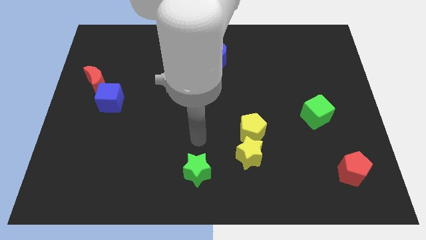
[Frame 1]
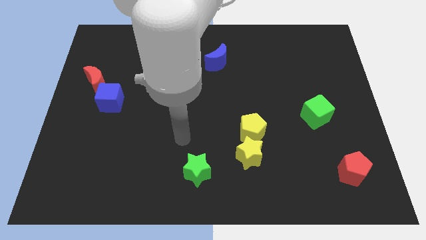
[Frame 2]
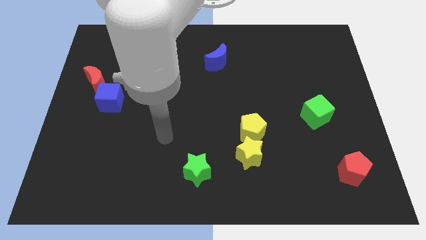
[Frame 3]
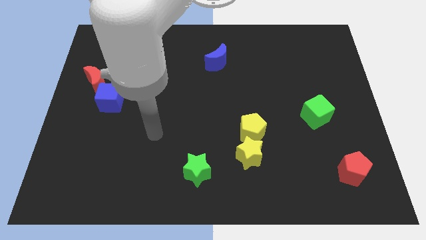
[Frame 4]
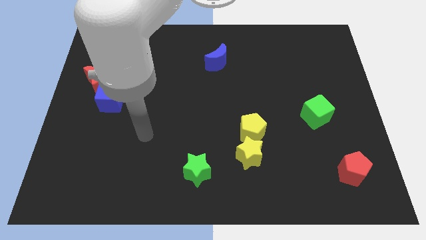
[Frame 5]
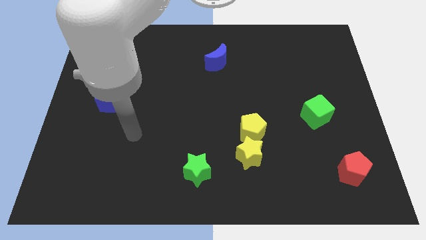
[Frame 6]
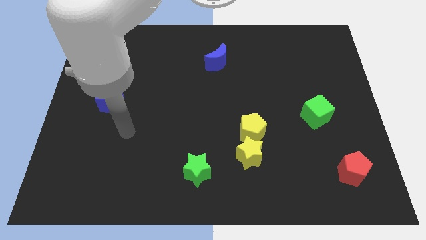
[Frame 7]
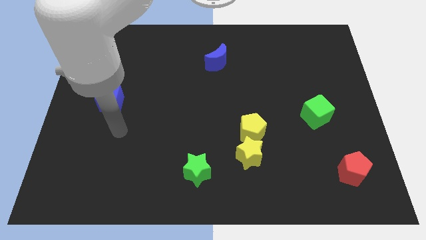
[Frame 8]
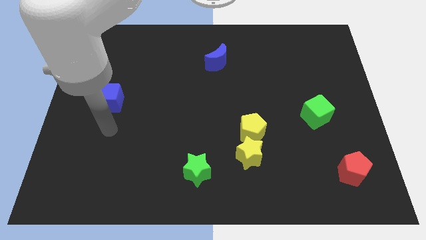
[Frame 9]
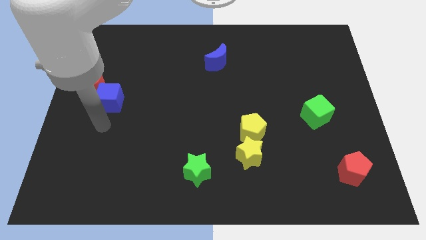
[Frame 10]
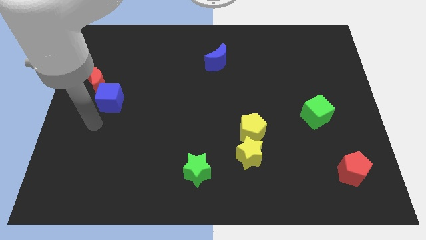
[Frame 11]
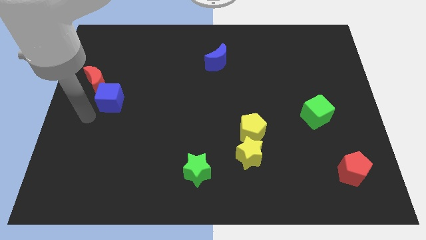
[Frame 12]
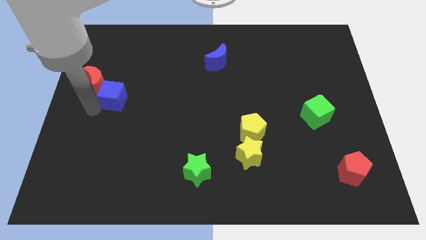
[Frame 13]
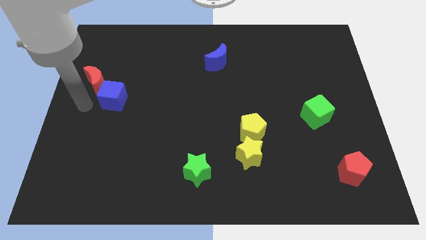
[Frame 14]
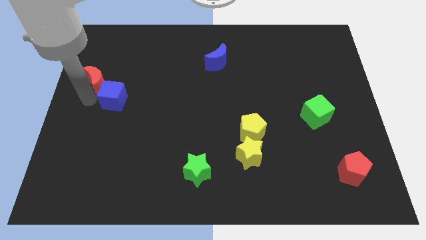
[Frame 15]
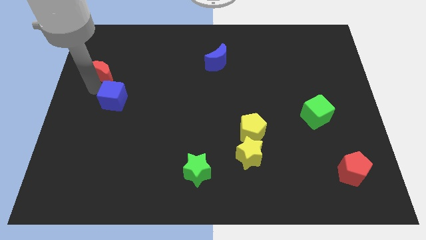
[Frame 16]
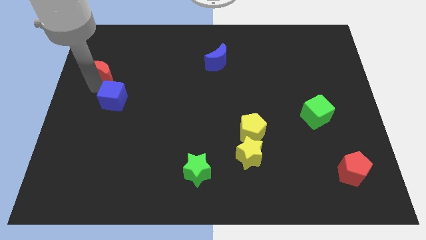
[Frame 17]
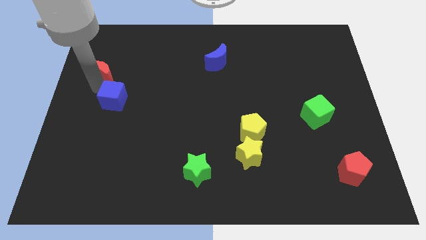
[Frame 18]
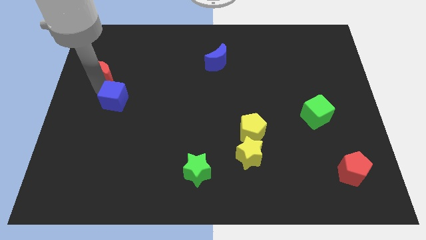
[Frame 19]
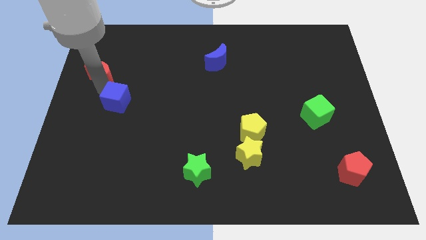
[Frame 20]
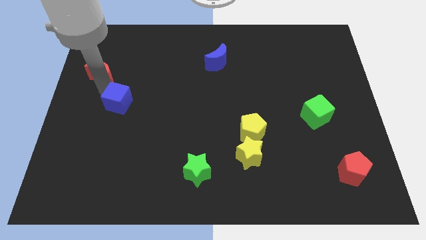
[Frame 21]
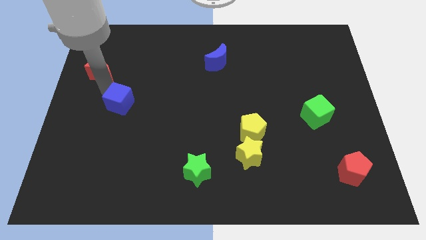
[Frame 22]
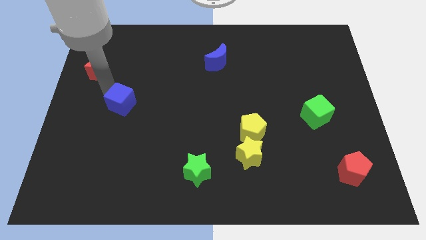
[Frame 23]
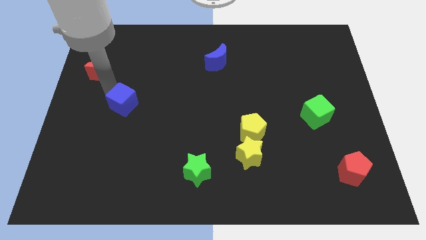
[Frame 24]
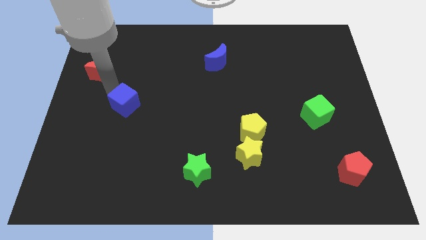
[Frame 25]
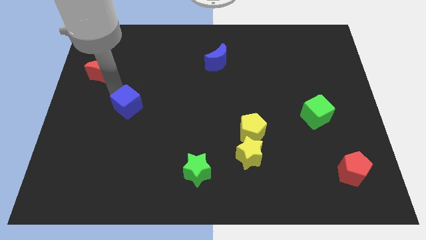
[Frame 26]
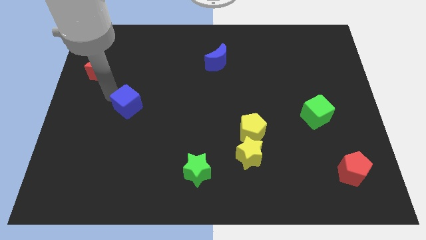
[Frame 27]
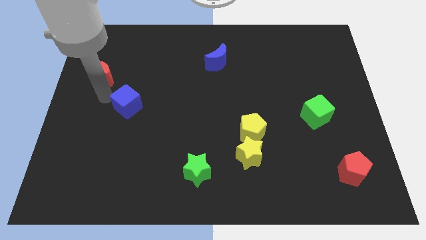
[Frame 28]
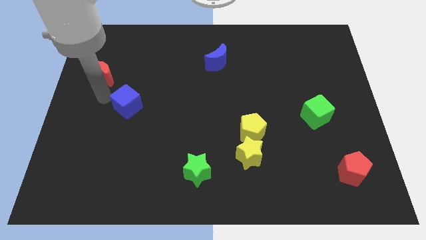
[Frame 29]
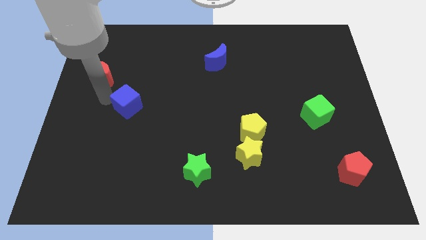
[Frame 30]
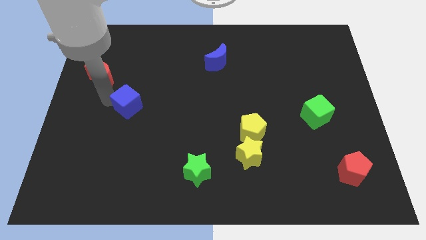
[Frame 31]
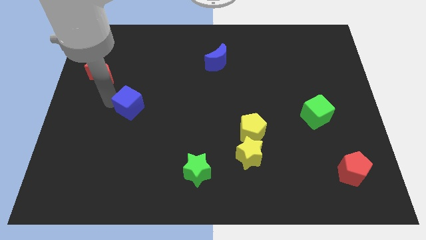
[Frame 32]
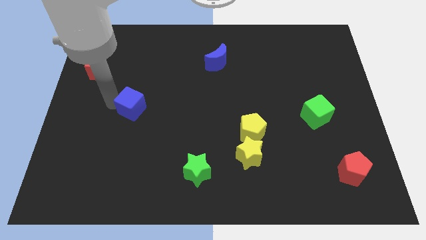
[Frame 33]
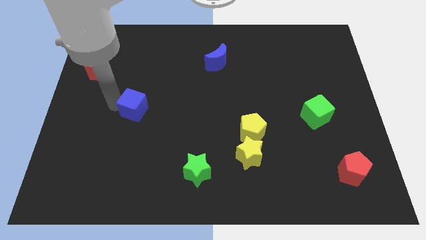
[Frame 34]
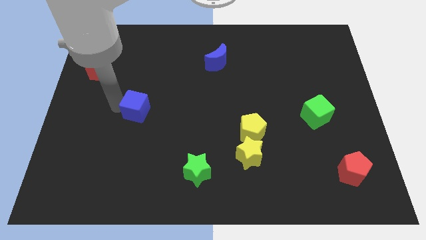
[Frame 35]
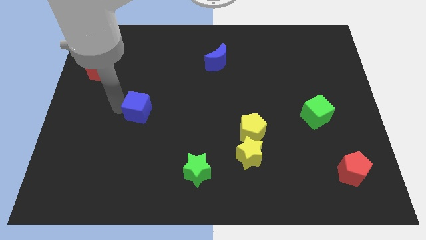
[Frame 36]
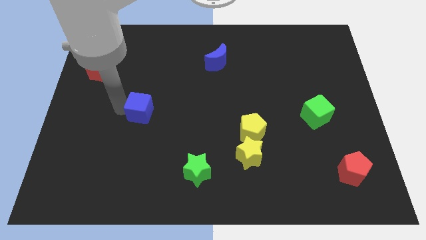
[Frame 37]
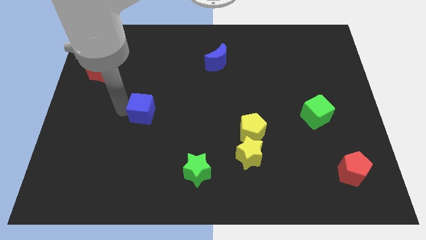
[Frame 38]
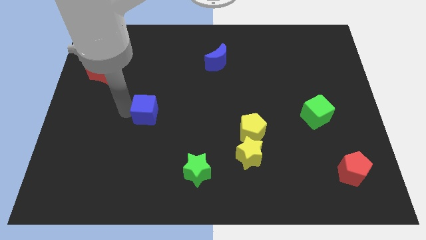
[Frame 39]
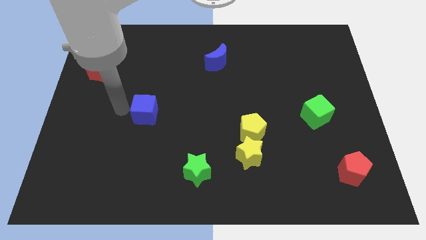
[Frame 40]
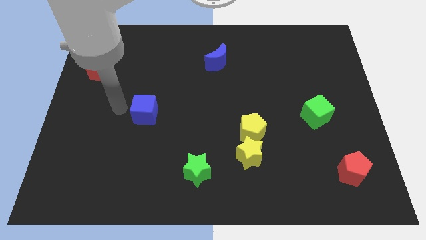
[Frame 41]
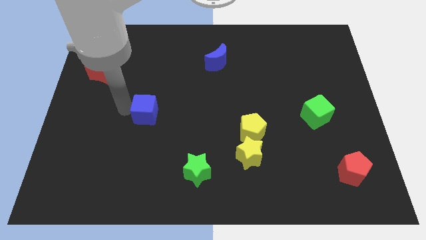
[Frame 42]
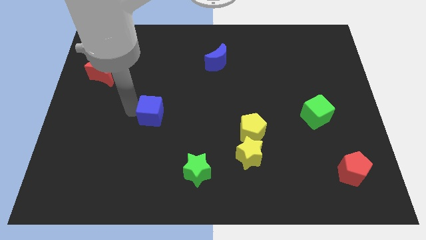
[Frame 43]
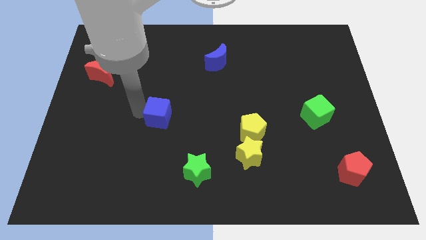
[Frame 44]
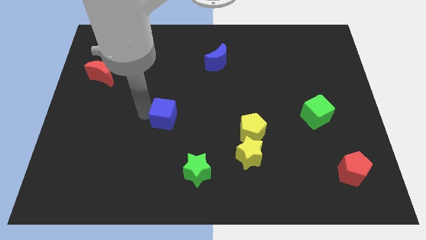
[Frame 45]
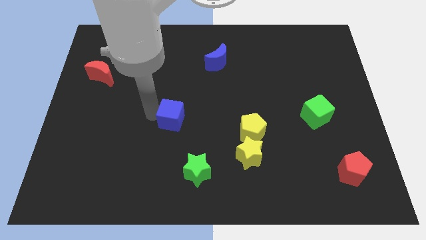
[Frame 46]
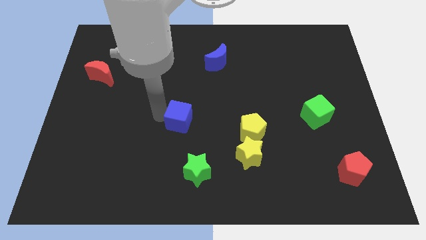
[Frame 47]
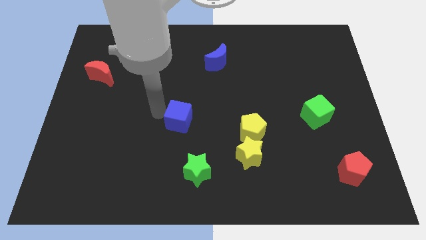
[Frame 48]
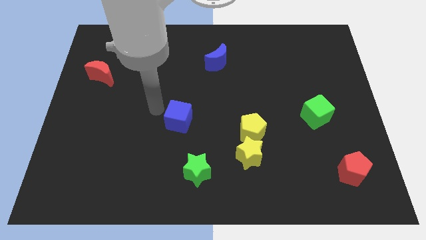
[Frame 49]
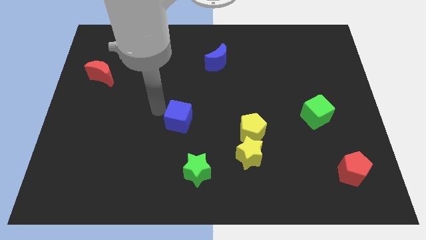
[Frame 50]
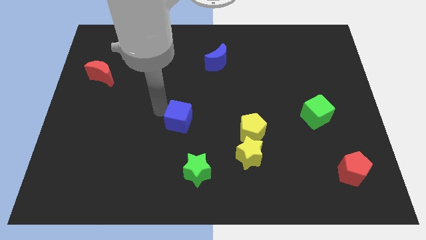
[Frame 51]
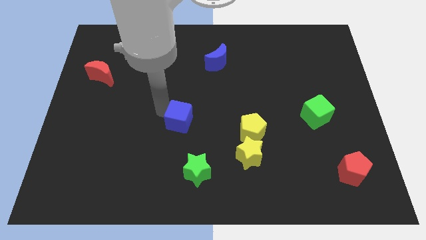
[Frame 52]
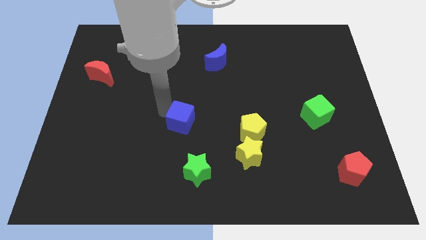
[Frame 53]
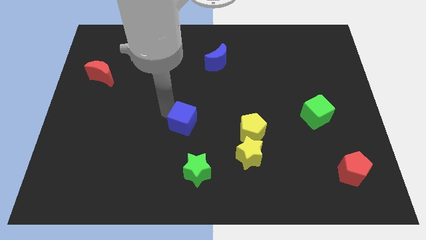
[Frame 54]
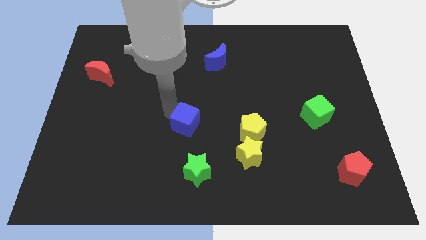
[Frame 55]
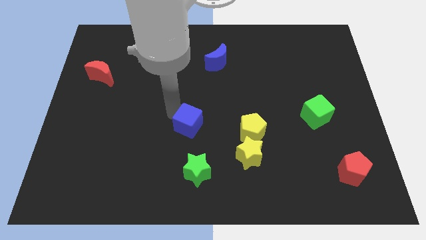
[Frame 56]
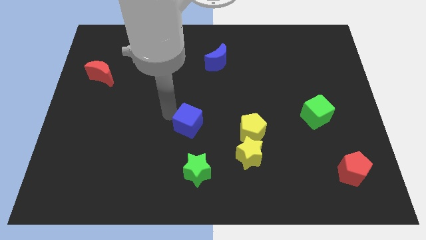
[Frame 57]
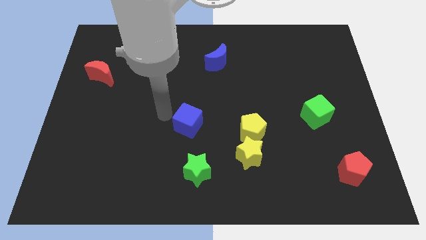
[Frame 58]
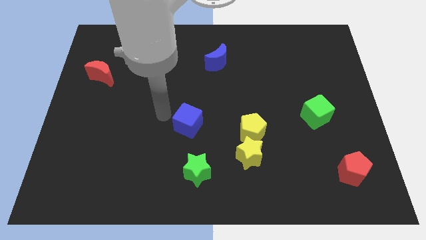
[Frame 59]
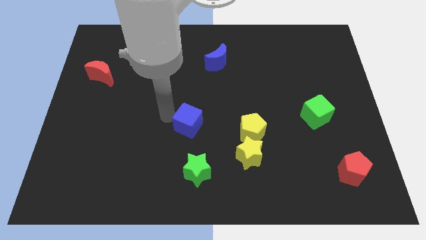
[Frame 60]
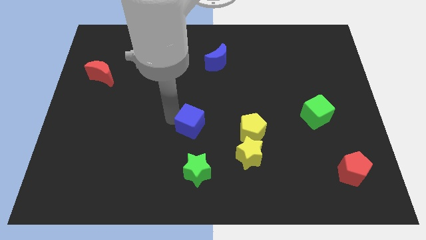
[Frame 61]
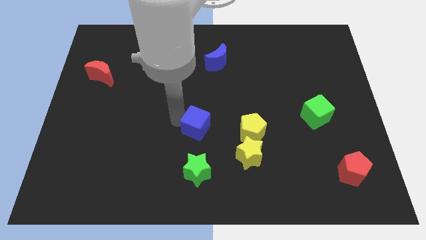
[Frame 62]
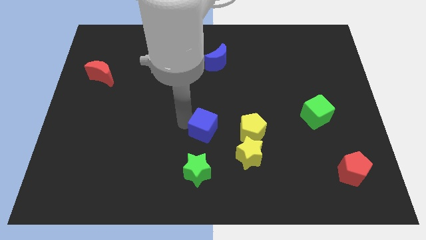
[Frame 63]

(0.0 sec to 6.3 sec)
slide the blue cube to the top left side of the yellow star

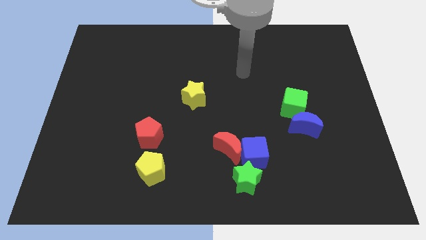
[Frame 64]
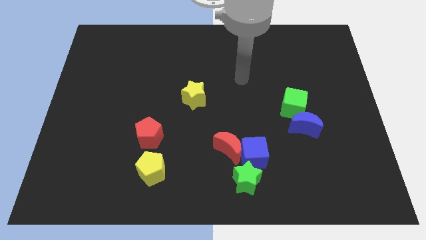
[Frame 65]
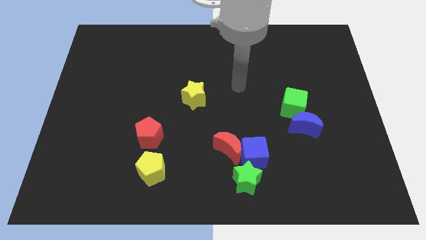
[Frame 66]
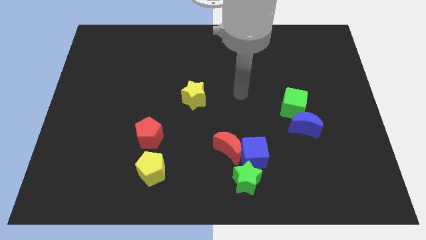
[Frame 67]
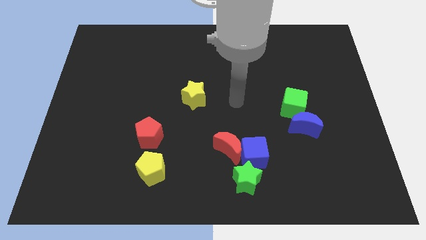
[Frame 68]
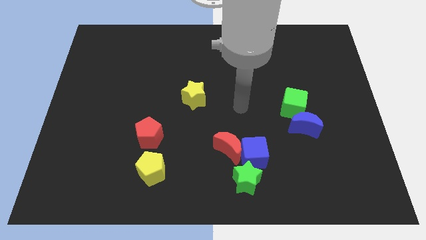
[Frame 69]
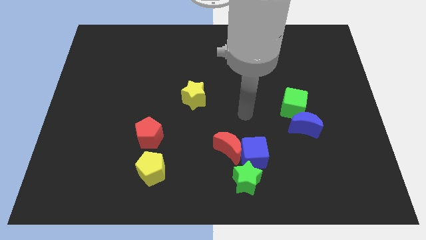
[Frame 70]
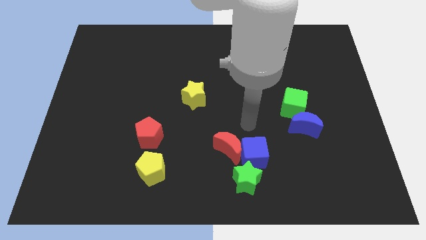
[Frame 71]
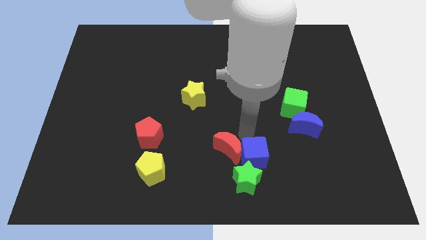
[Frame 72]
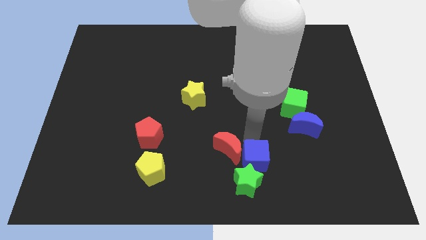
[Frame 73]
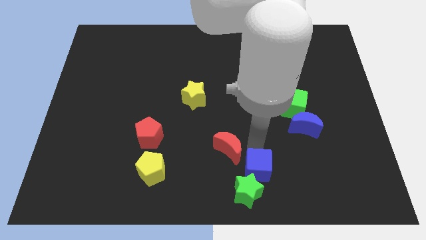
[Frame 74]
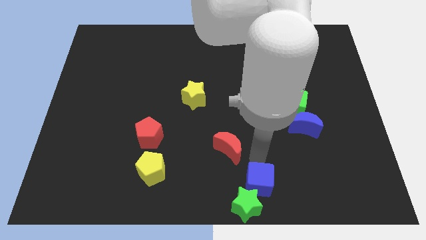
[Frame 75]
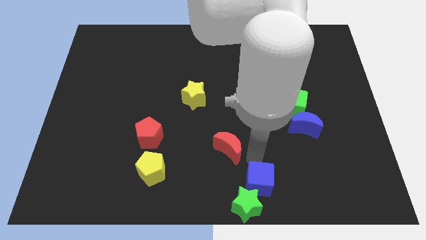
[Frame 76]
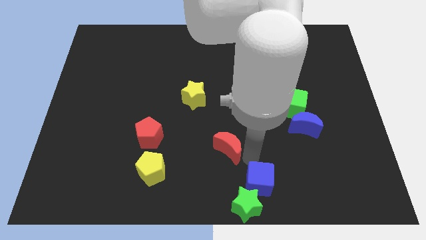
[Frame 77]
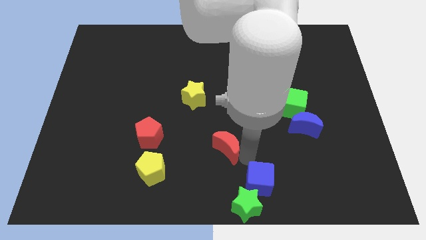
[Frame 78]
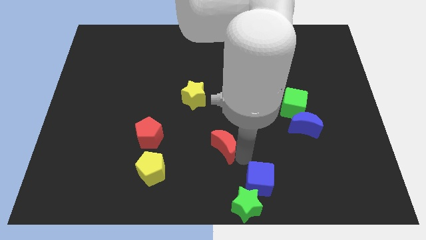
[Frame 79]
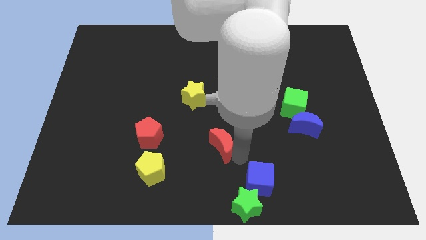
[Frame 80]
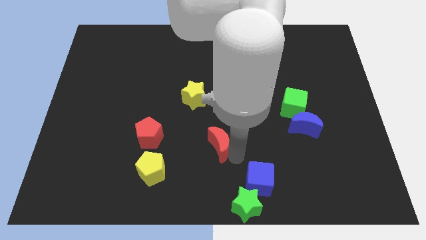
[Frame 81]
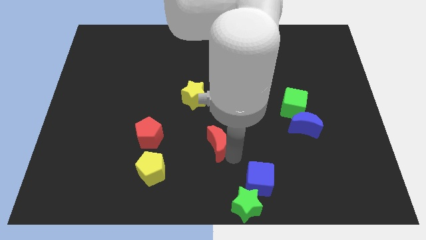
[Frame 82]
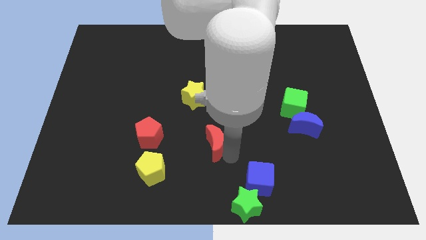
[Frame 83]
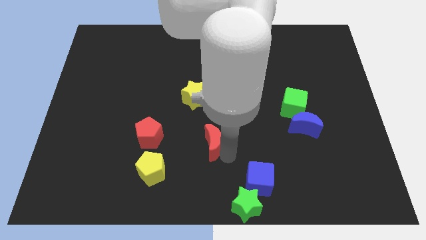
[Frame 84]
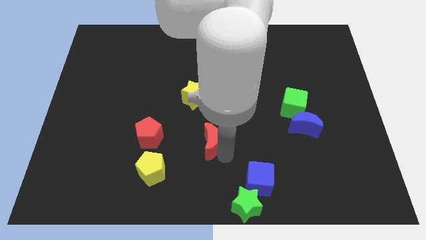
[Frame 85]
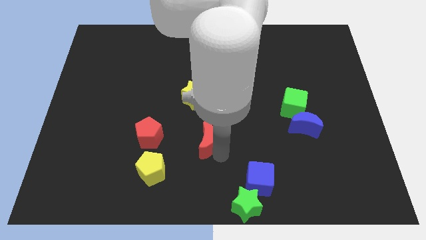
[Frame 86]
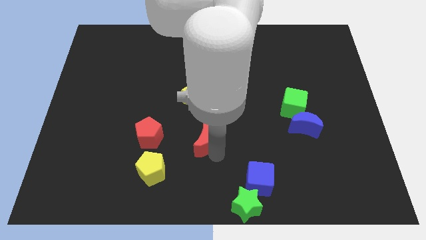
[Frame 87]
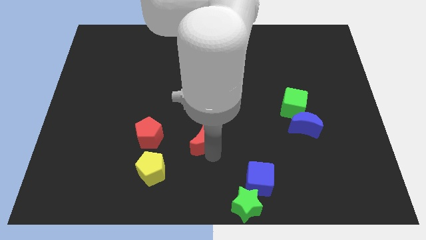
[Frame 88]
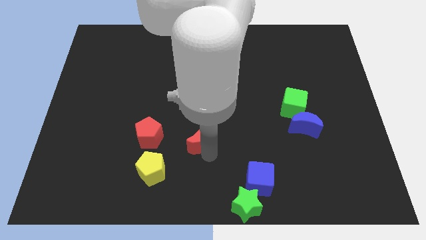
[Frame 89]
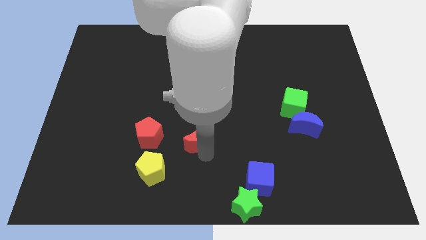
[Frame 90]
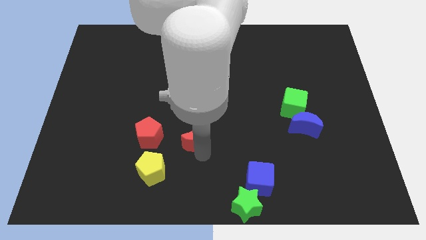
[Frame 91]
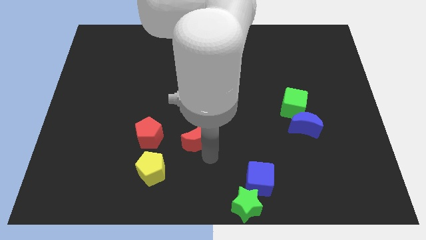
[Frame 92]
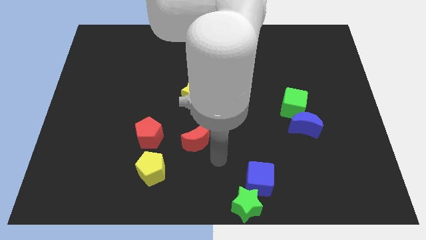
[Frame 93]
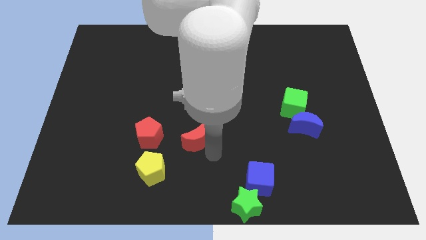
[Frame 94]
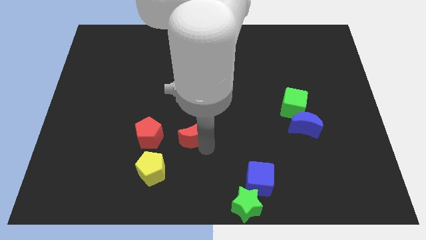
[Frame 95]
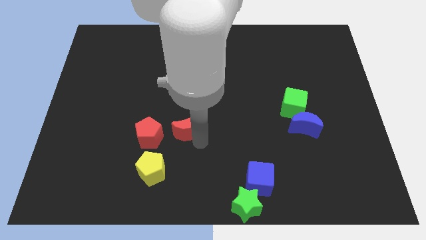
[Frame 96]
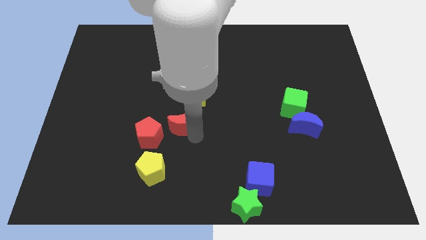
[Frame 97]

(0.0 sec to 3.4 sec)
move the red moon to the bottom left of the yellow star
